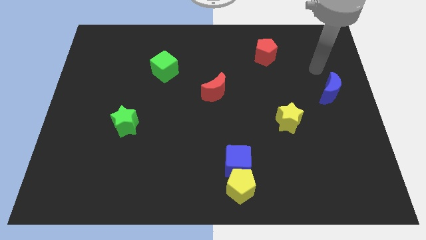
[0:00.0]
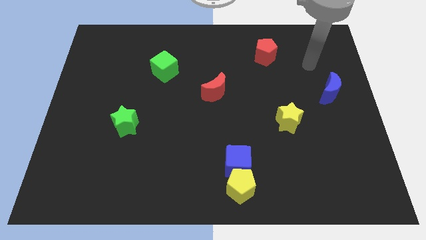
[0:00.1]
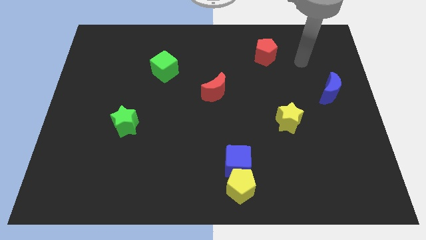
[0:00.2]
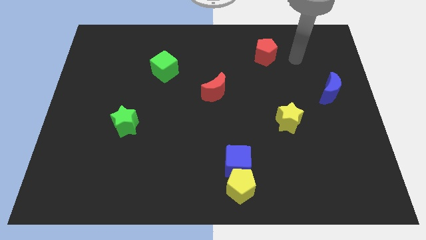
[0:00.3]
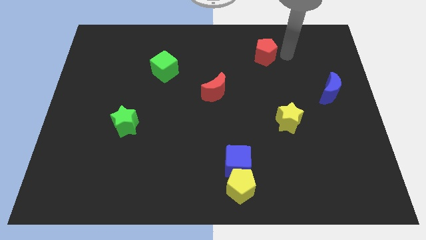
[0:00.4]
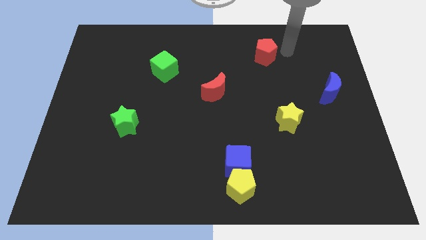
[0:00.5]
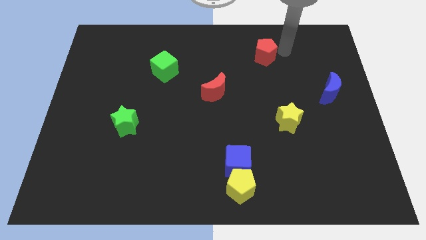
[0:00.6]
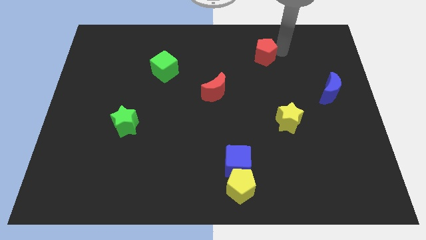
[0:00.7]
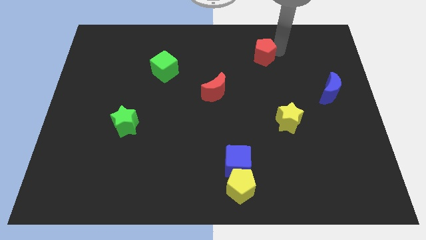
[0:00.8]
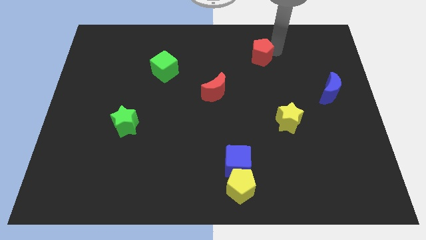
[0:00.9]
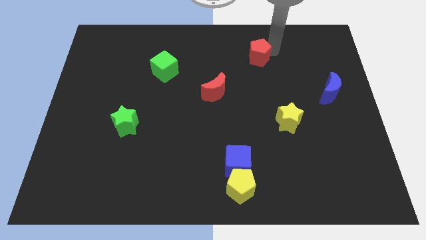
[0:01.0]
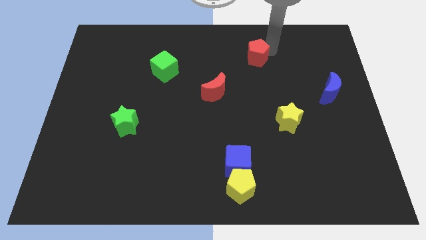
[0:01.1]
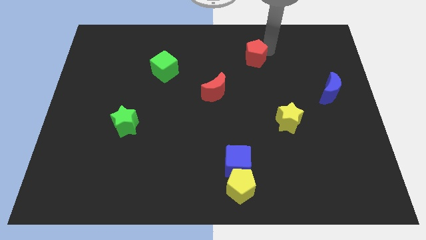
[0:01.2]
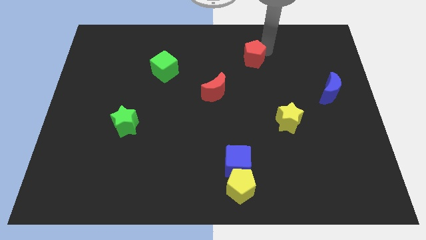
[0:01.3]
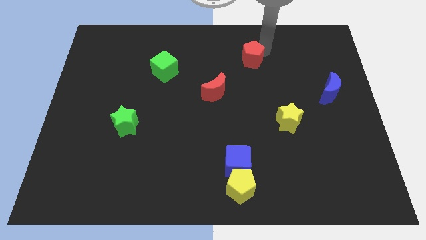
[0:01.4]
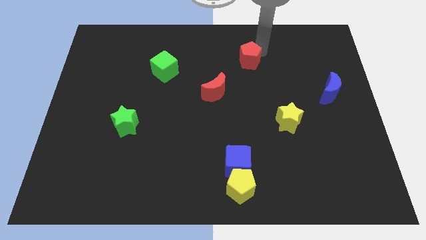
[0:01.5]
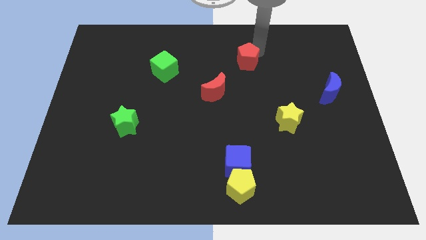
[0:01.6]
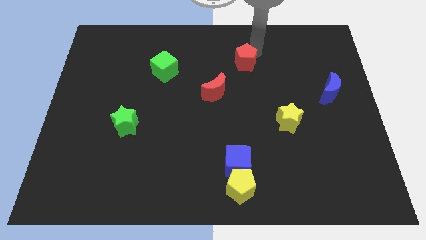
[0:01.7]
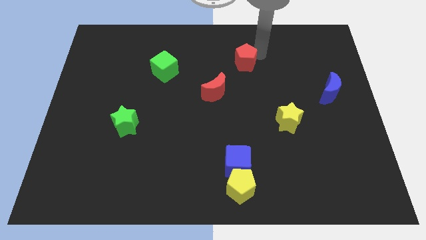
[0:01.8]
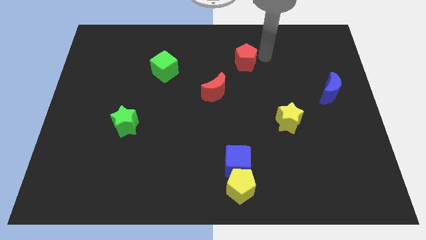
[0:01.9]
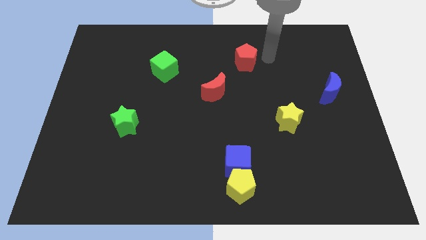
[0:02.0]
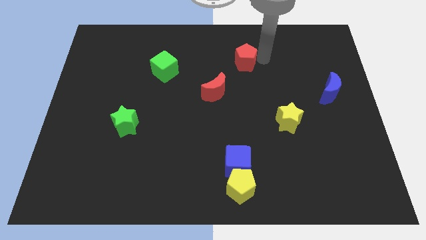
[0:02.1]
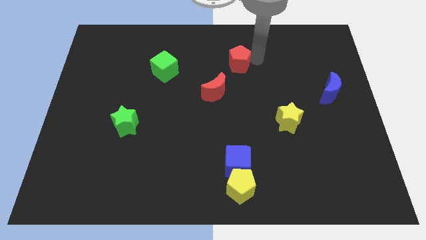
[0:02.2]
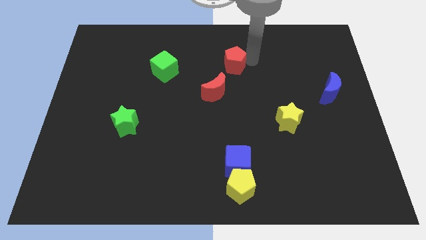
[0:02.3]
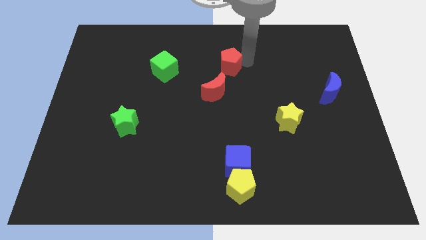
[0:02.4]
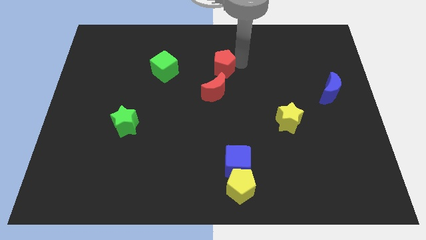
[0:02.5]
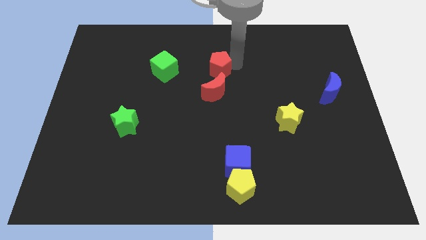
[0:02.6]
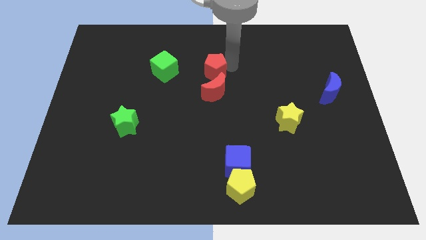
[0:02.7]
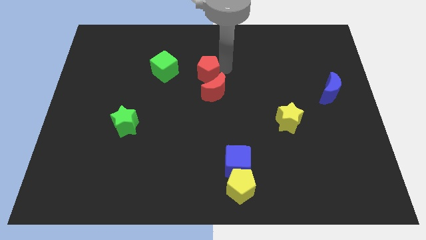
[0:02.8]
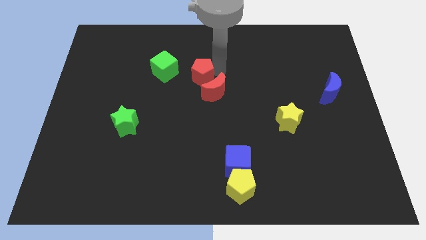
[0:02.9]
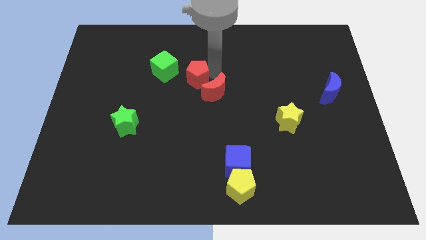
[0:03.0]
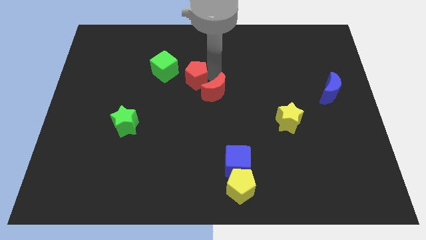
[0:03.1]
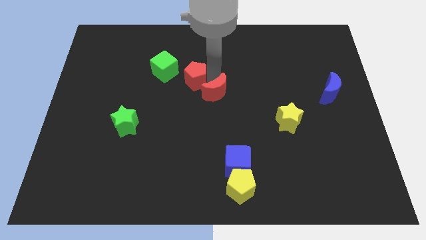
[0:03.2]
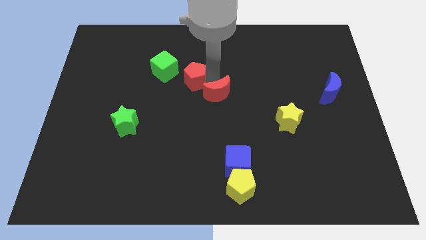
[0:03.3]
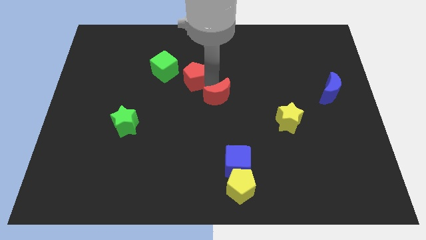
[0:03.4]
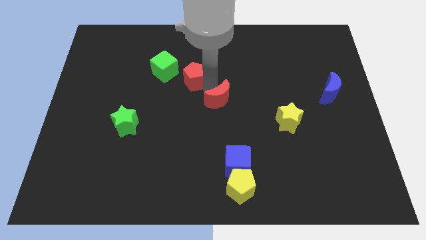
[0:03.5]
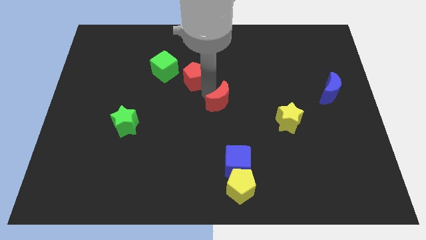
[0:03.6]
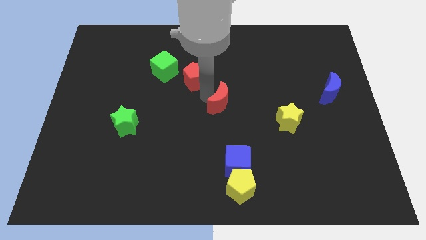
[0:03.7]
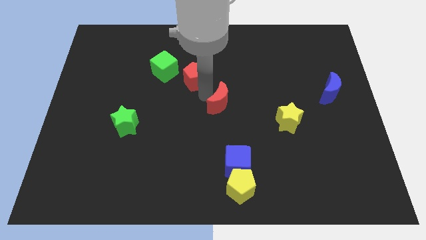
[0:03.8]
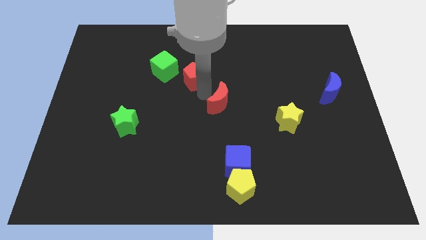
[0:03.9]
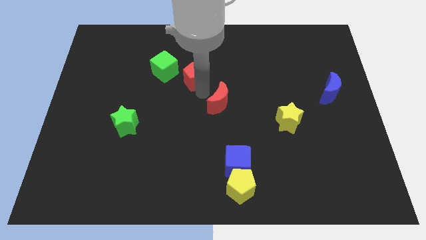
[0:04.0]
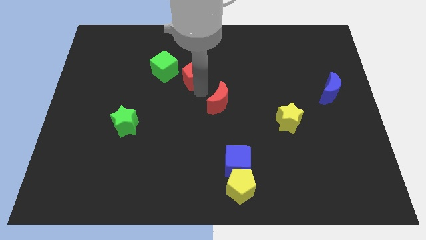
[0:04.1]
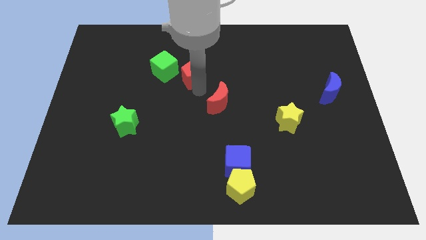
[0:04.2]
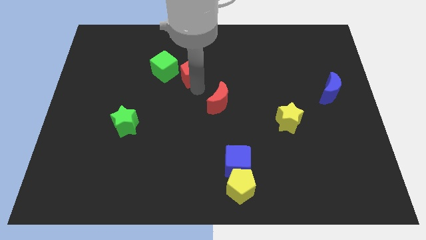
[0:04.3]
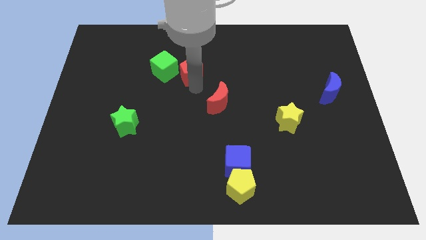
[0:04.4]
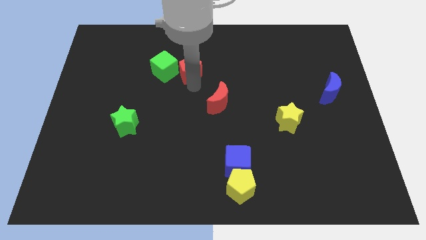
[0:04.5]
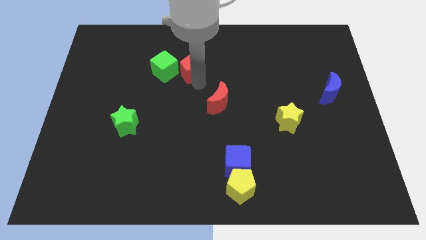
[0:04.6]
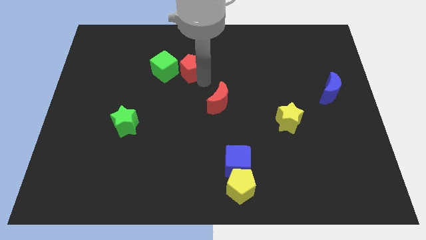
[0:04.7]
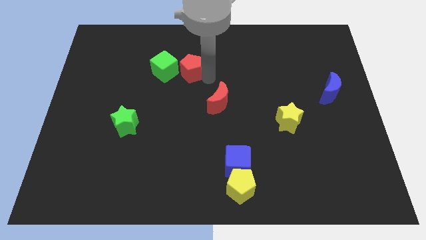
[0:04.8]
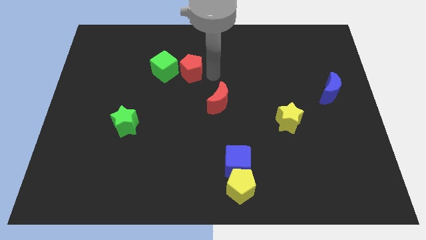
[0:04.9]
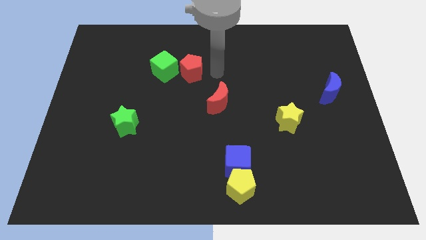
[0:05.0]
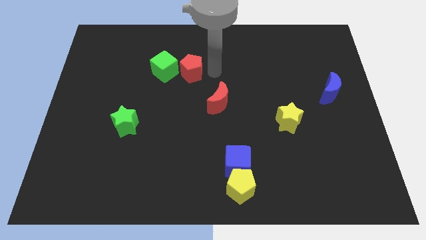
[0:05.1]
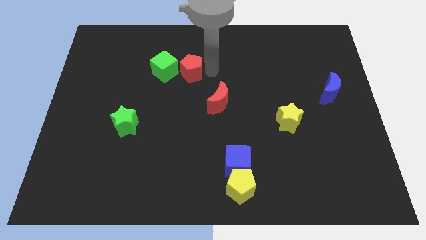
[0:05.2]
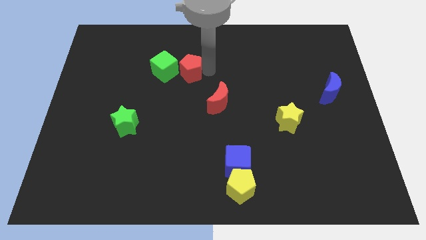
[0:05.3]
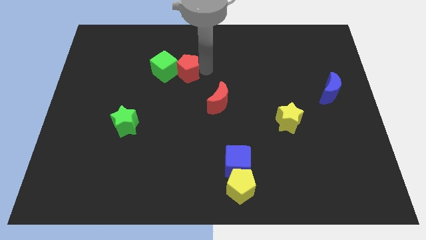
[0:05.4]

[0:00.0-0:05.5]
slide the red pentagon next to the green cube
